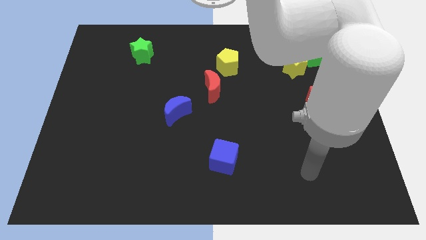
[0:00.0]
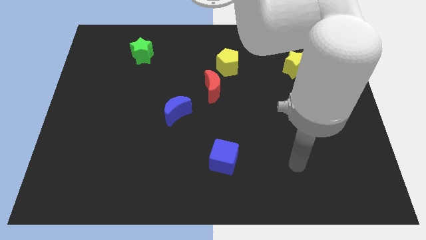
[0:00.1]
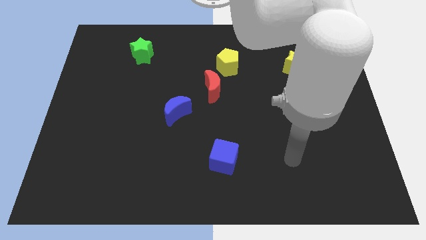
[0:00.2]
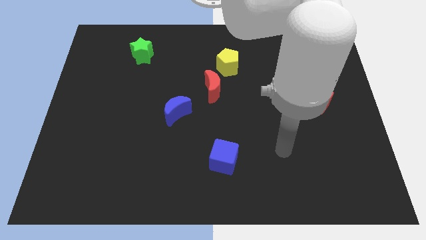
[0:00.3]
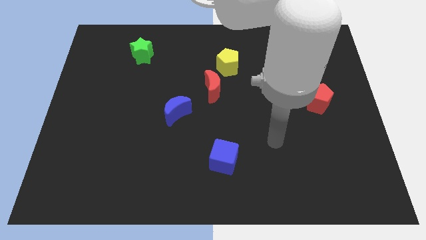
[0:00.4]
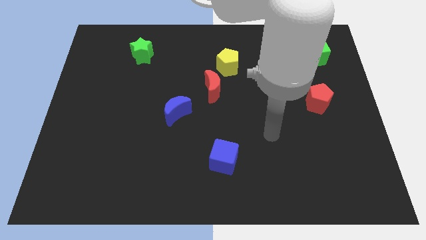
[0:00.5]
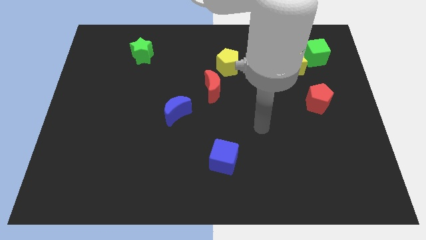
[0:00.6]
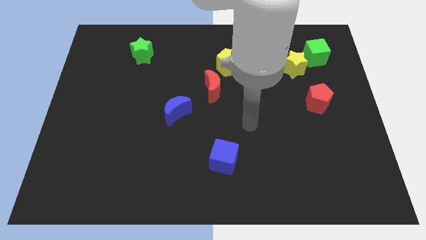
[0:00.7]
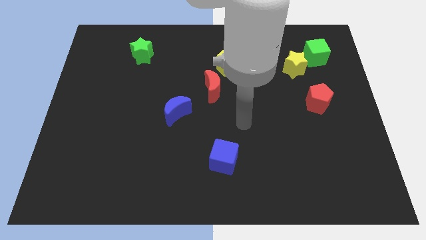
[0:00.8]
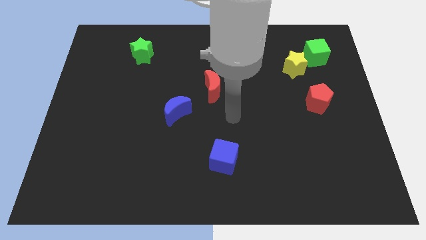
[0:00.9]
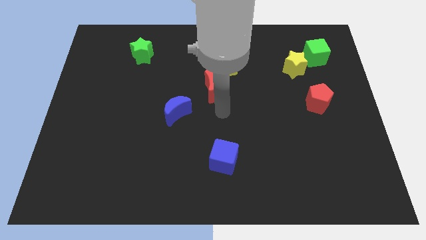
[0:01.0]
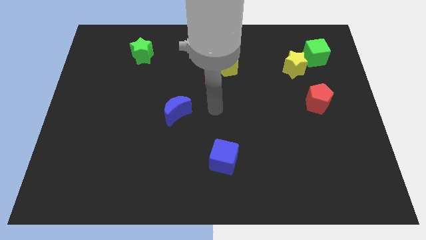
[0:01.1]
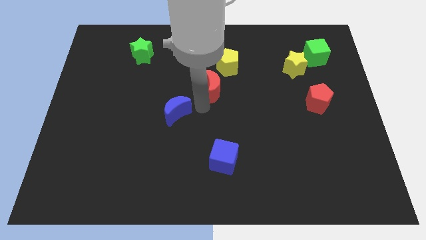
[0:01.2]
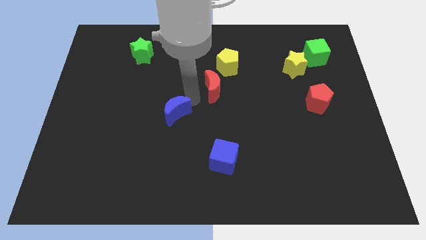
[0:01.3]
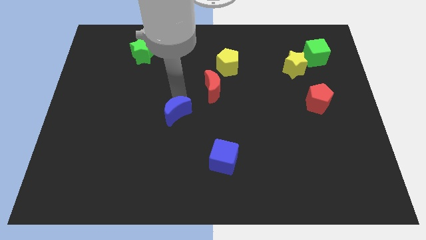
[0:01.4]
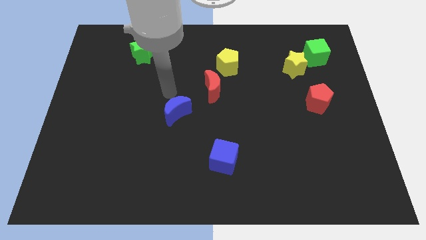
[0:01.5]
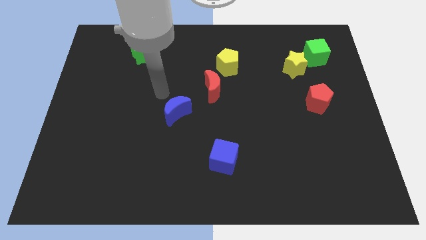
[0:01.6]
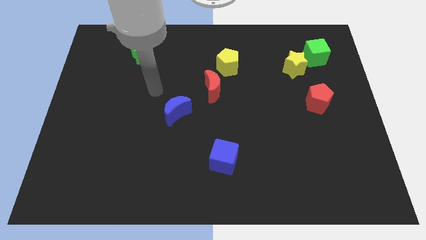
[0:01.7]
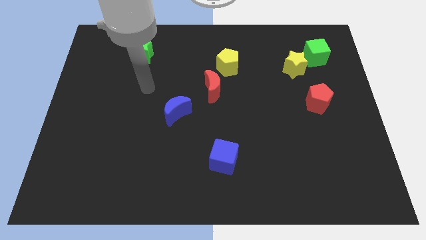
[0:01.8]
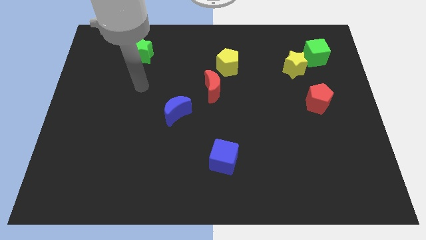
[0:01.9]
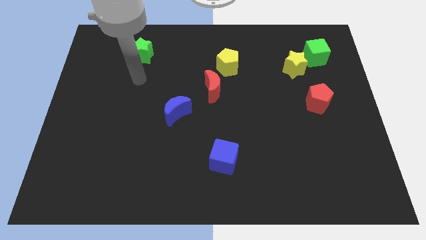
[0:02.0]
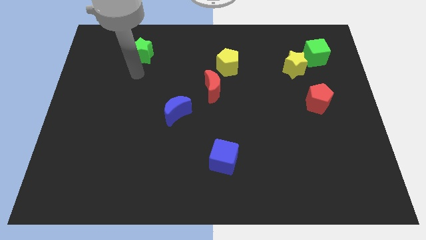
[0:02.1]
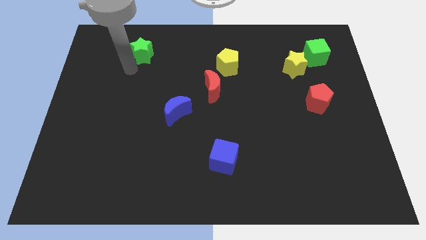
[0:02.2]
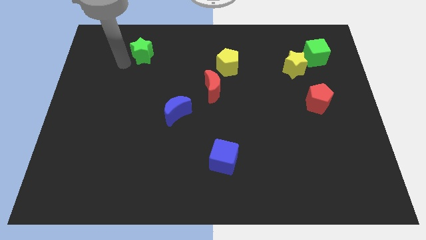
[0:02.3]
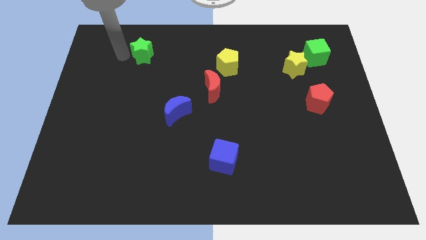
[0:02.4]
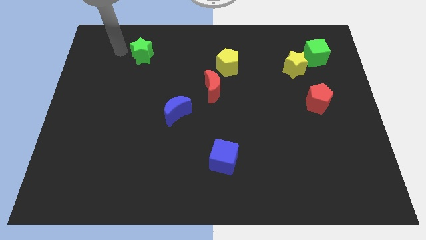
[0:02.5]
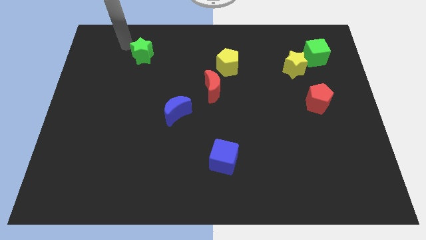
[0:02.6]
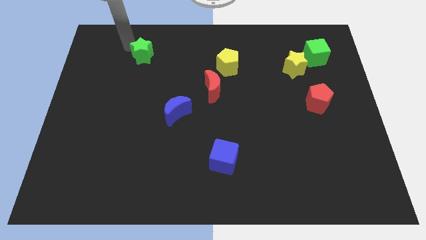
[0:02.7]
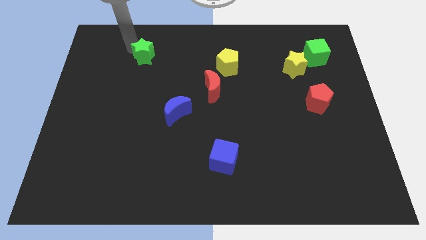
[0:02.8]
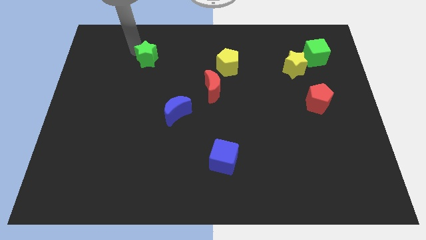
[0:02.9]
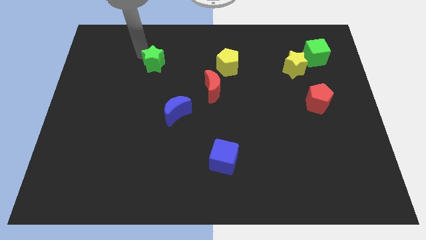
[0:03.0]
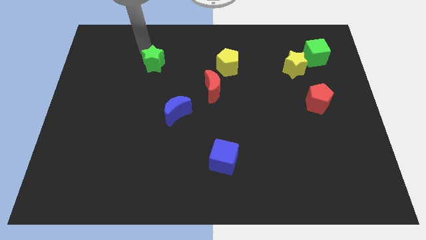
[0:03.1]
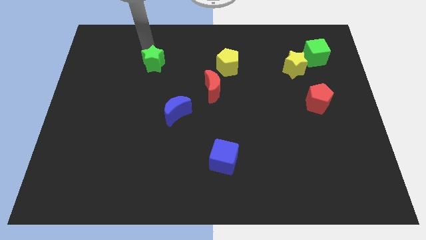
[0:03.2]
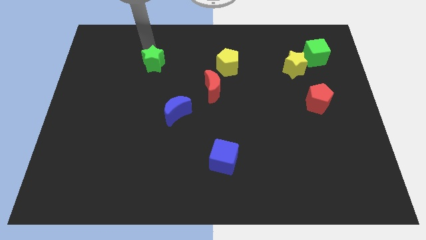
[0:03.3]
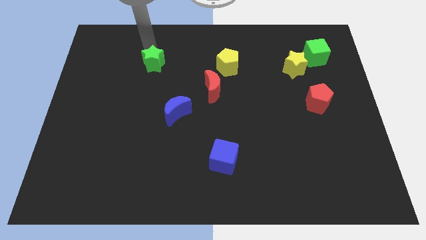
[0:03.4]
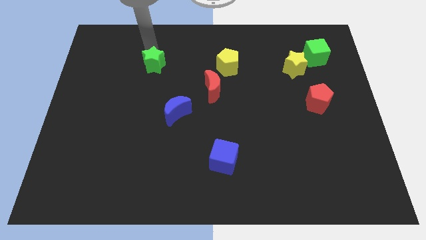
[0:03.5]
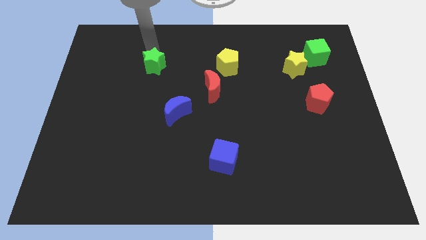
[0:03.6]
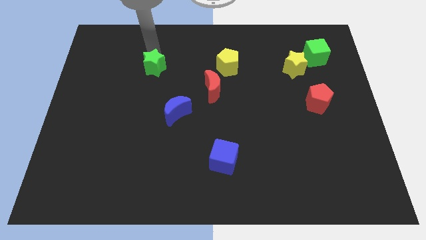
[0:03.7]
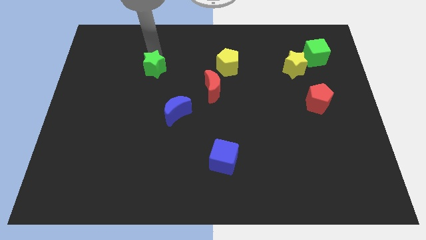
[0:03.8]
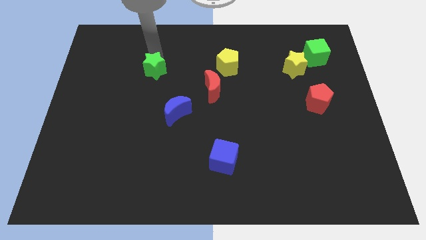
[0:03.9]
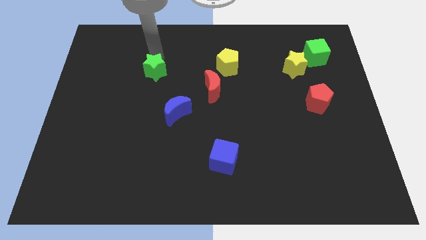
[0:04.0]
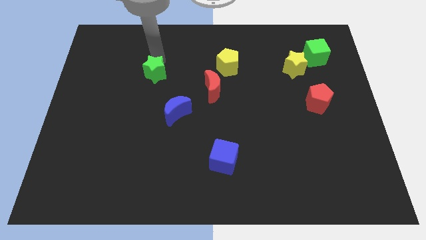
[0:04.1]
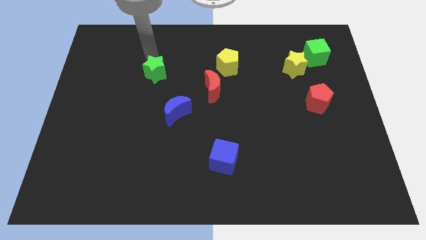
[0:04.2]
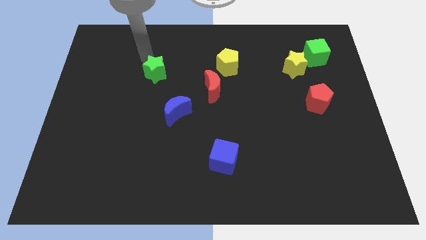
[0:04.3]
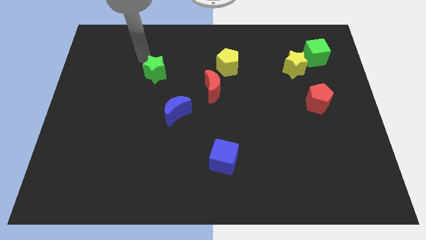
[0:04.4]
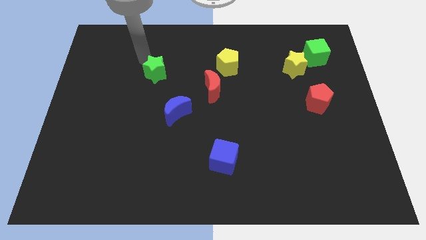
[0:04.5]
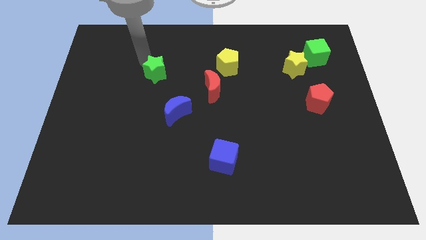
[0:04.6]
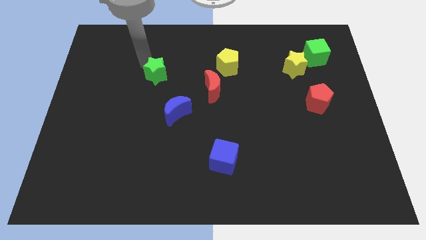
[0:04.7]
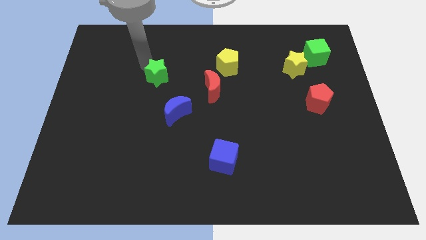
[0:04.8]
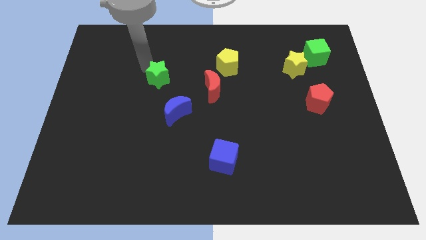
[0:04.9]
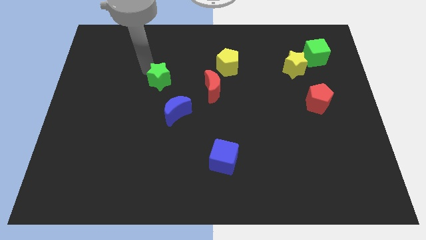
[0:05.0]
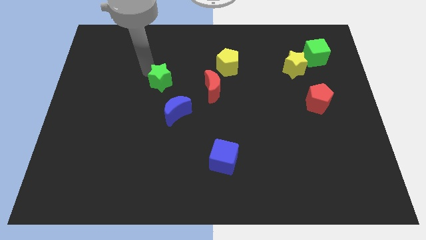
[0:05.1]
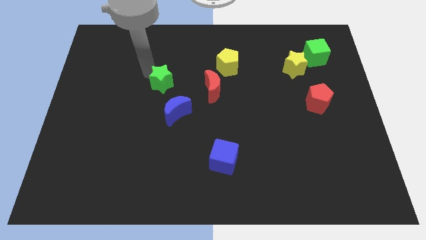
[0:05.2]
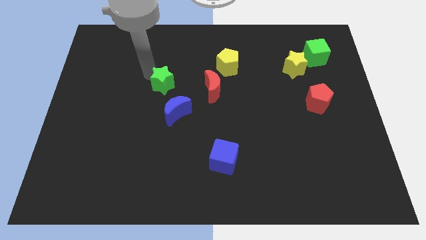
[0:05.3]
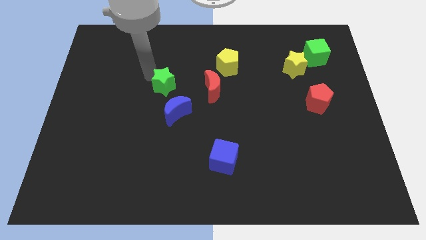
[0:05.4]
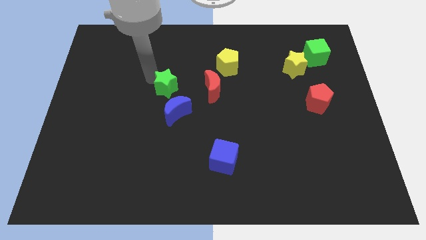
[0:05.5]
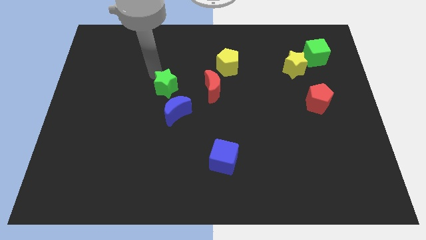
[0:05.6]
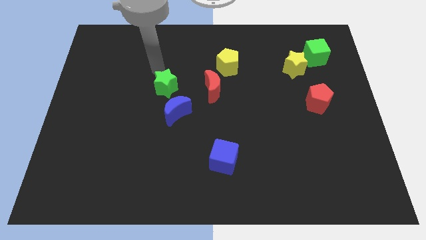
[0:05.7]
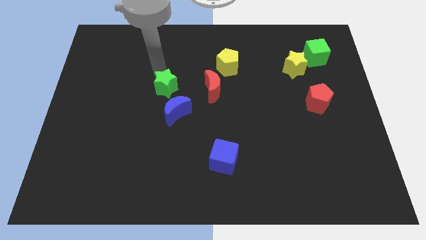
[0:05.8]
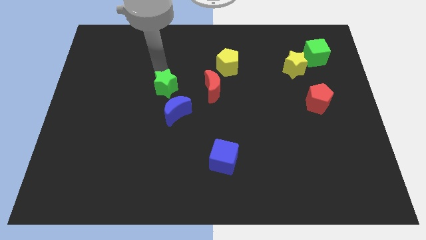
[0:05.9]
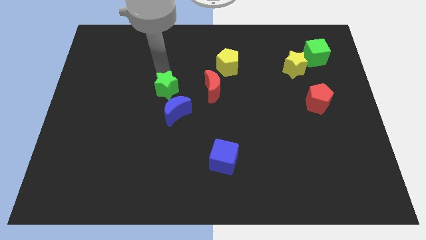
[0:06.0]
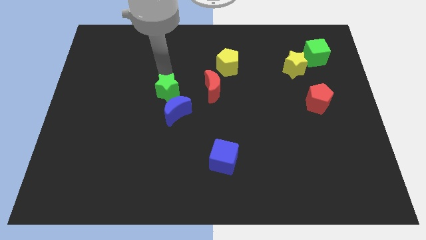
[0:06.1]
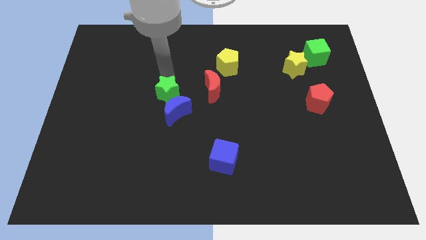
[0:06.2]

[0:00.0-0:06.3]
put the green star to the blue moon

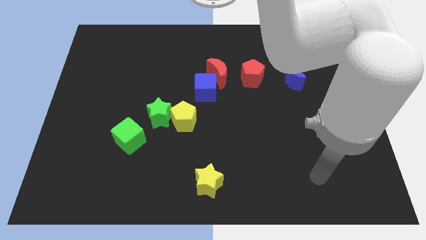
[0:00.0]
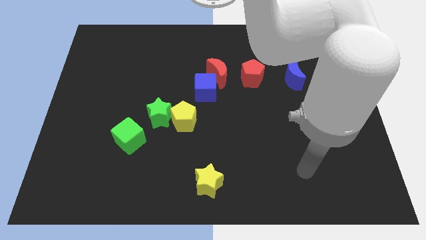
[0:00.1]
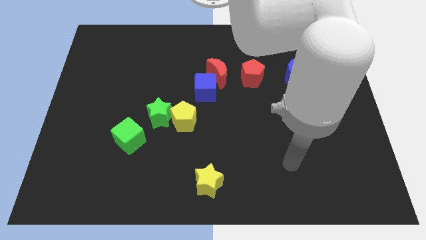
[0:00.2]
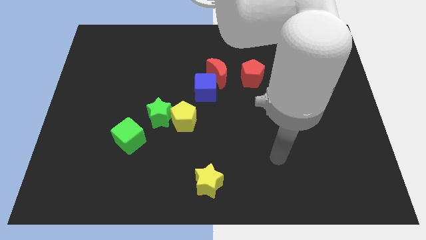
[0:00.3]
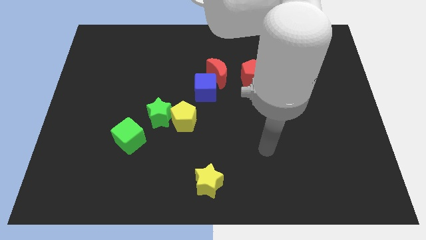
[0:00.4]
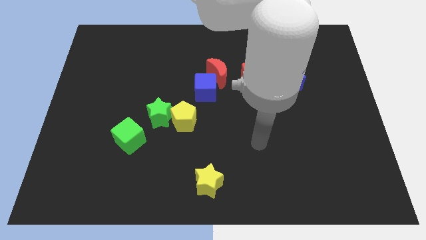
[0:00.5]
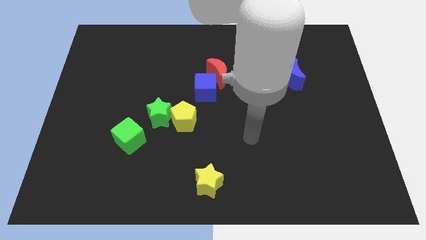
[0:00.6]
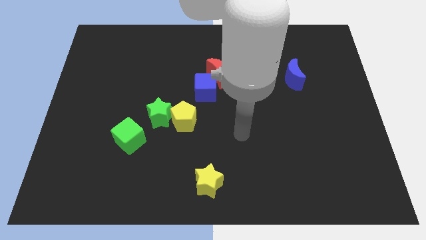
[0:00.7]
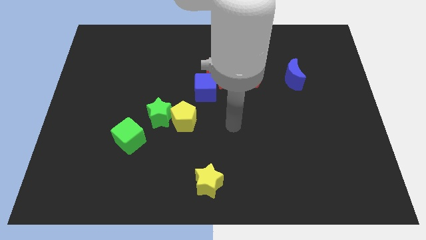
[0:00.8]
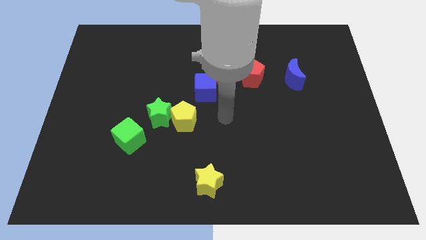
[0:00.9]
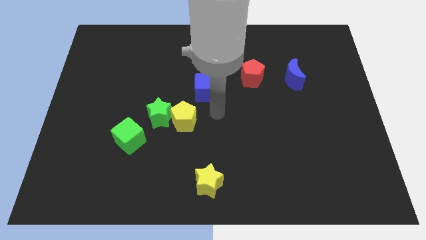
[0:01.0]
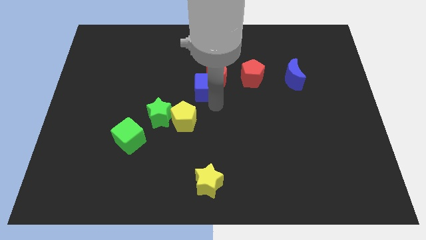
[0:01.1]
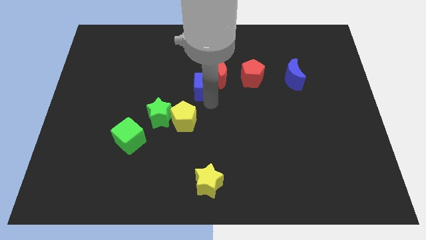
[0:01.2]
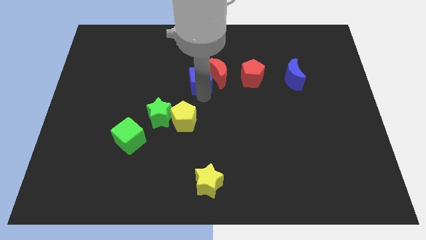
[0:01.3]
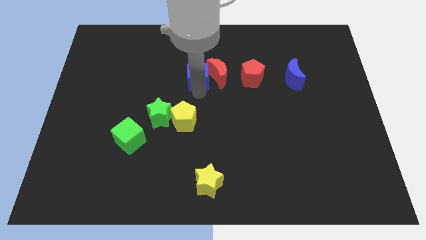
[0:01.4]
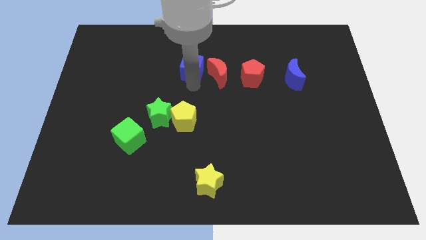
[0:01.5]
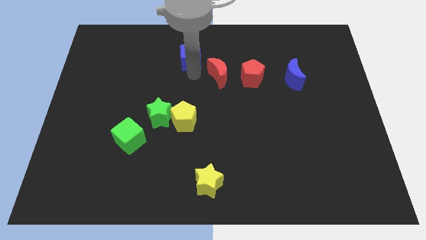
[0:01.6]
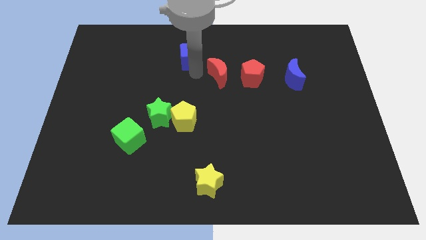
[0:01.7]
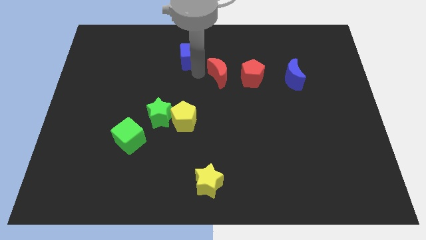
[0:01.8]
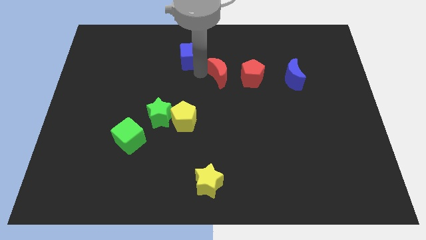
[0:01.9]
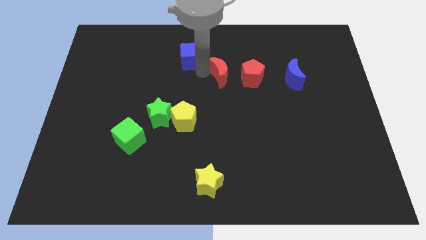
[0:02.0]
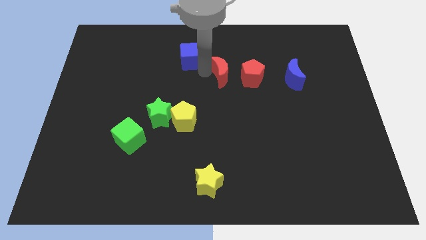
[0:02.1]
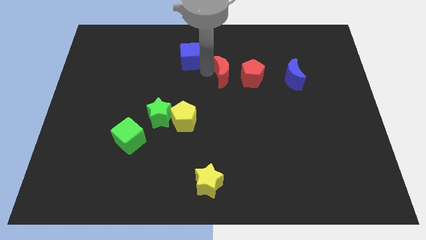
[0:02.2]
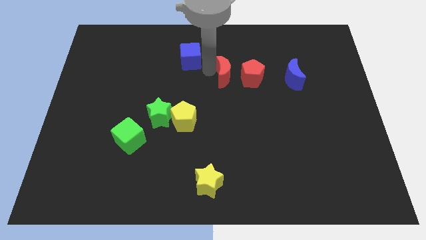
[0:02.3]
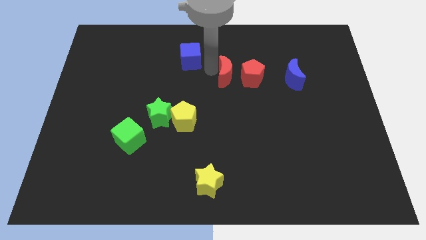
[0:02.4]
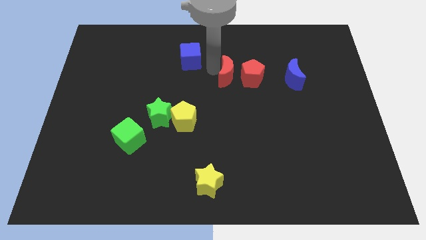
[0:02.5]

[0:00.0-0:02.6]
slide the red moon next to the red pentagon
